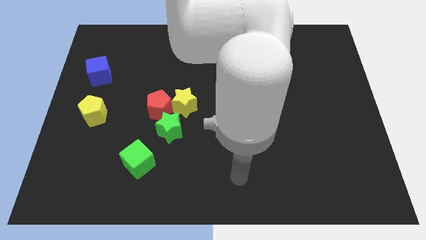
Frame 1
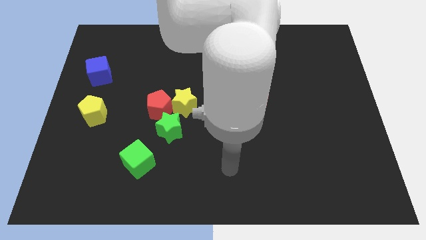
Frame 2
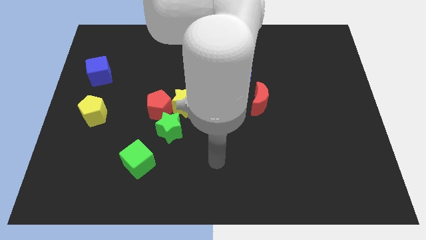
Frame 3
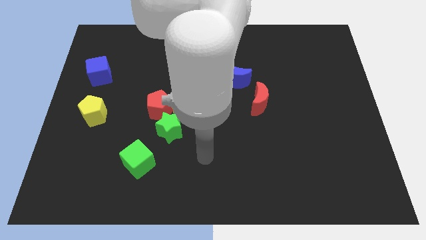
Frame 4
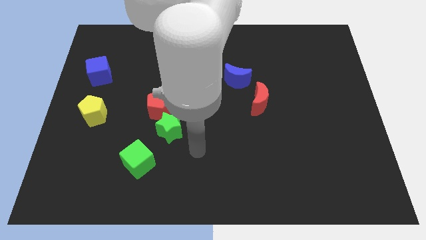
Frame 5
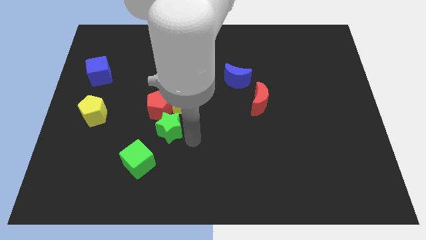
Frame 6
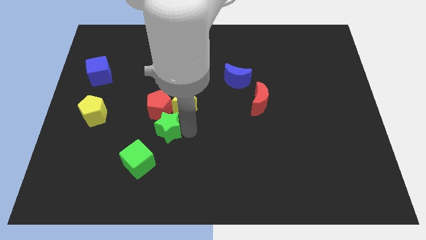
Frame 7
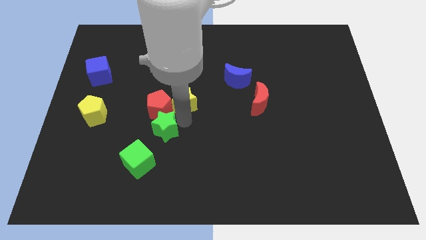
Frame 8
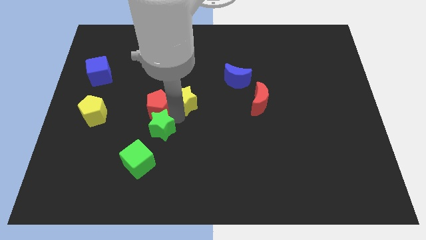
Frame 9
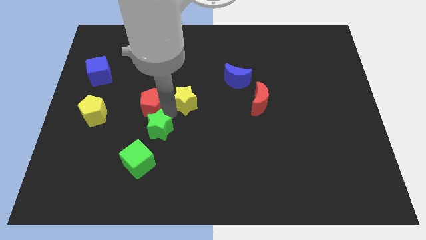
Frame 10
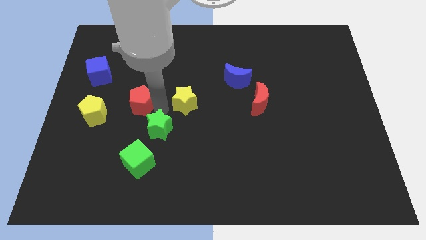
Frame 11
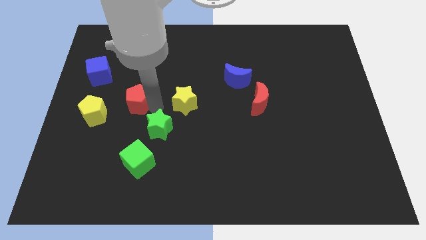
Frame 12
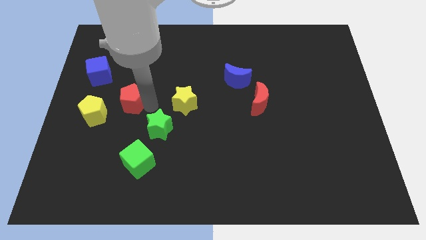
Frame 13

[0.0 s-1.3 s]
pull the red pentagon apart from the yellow star and green star

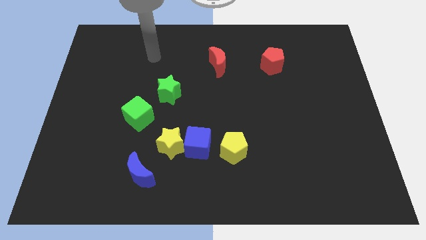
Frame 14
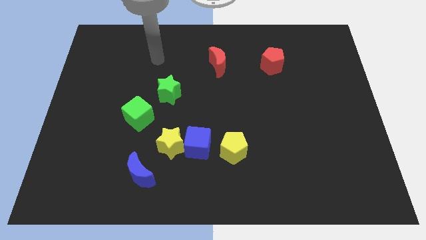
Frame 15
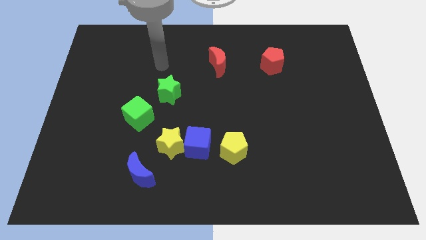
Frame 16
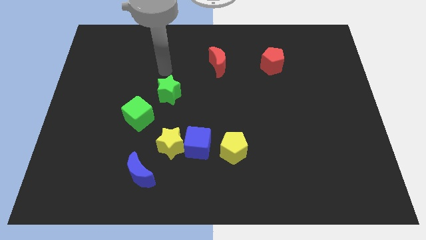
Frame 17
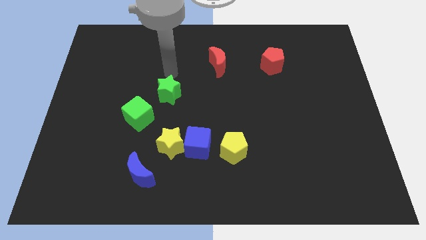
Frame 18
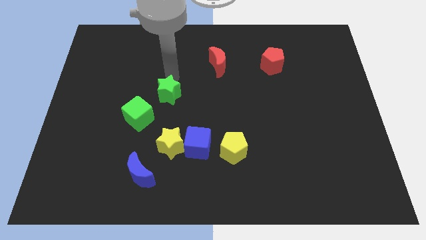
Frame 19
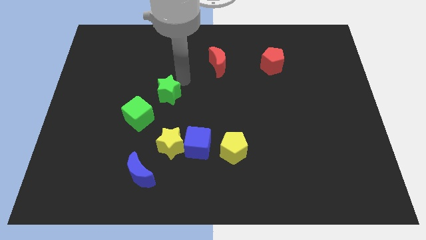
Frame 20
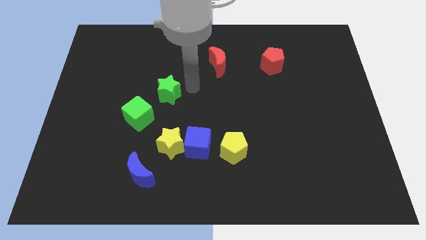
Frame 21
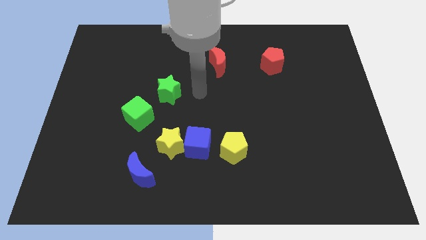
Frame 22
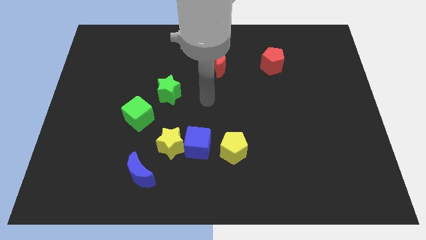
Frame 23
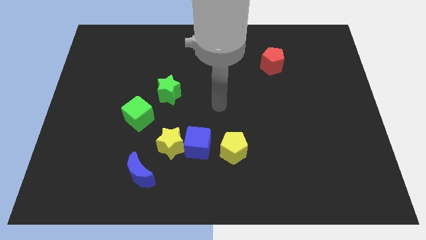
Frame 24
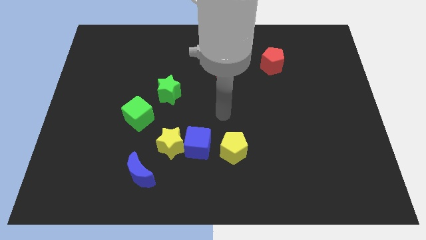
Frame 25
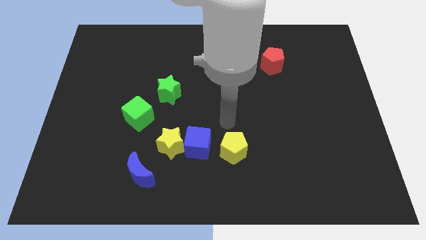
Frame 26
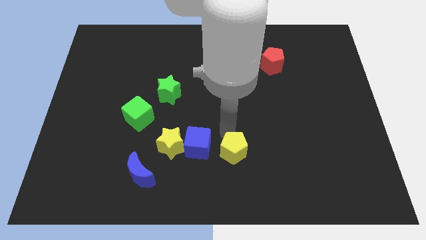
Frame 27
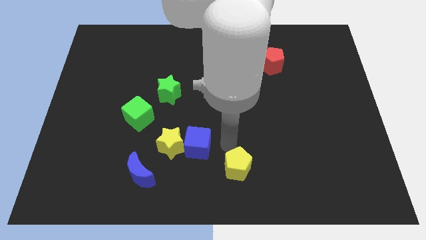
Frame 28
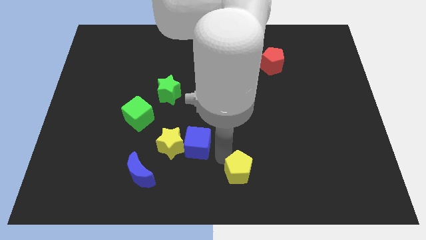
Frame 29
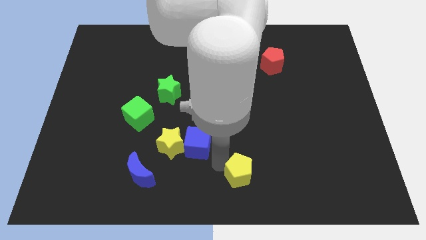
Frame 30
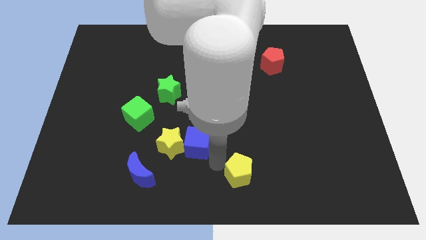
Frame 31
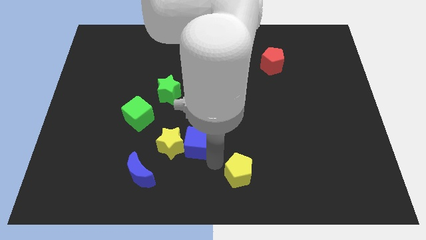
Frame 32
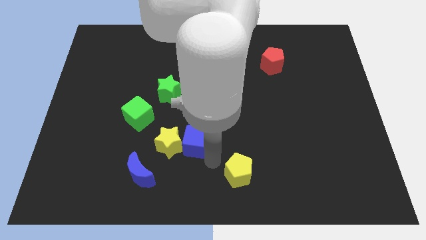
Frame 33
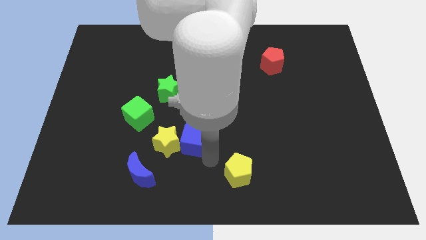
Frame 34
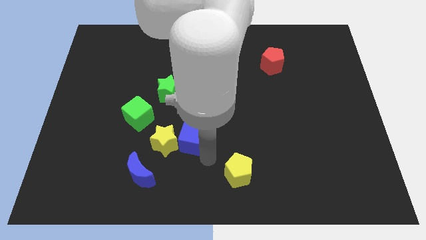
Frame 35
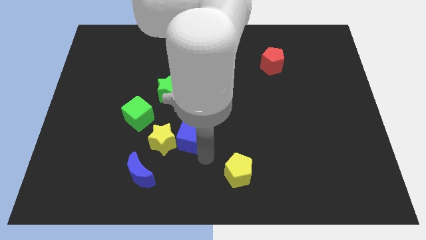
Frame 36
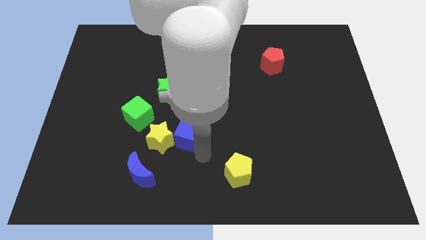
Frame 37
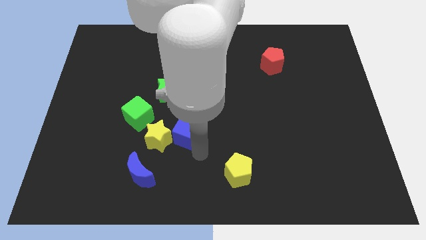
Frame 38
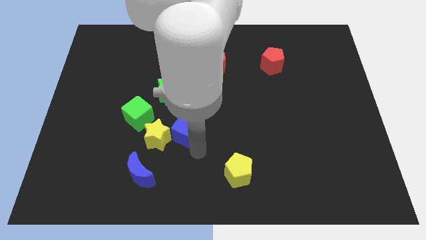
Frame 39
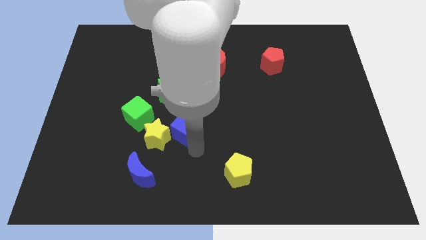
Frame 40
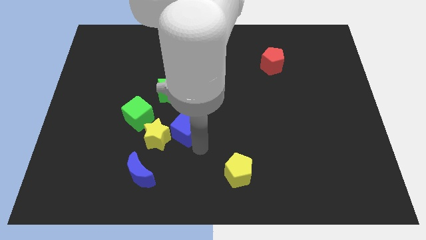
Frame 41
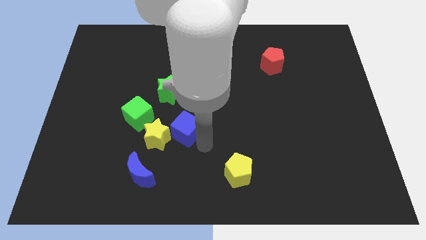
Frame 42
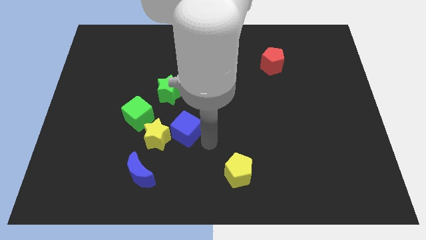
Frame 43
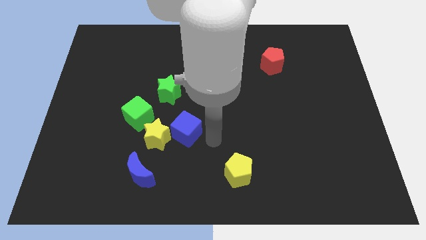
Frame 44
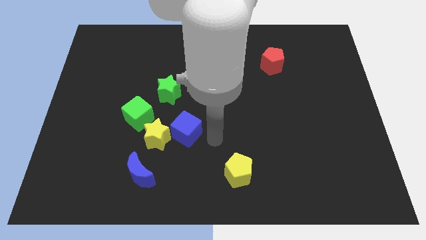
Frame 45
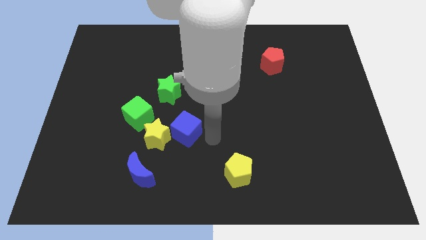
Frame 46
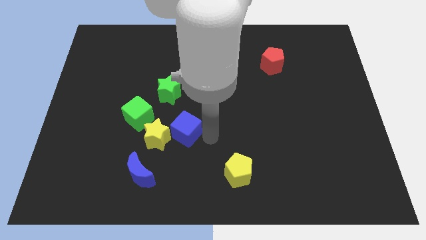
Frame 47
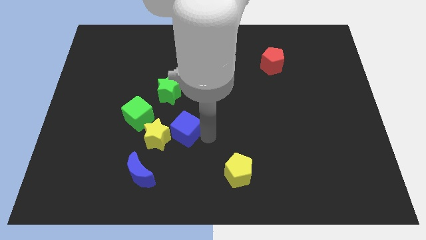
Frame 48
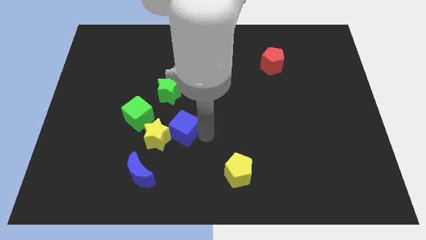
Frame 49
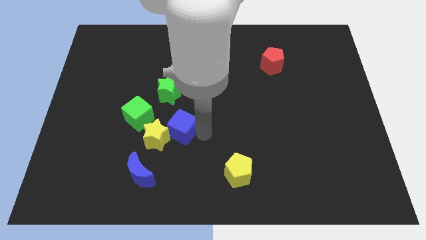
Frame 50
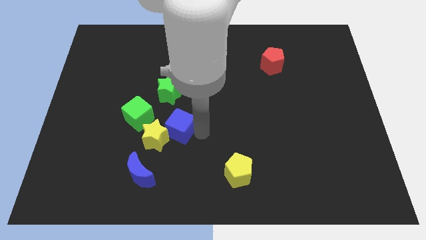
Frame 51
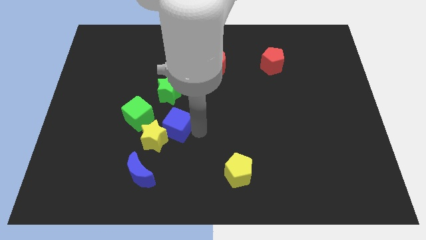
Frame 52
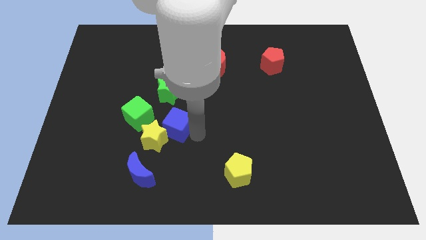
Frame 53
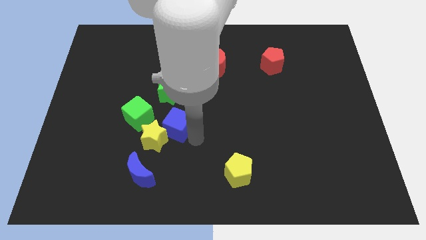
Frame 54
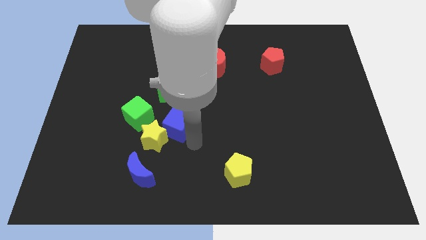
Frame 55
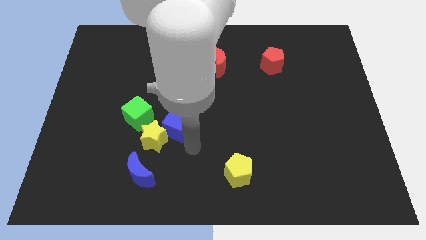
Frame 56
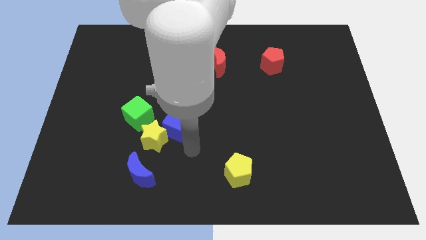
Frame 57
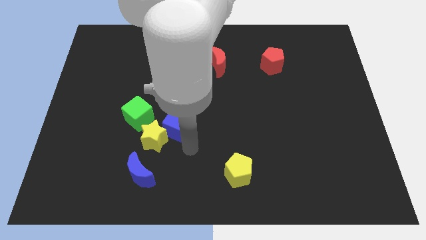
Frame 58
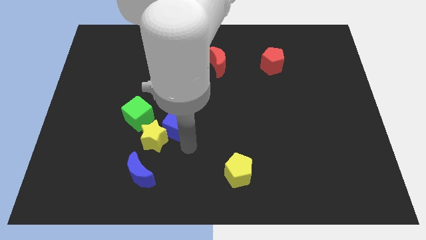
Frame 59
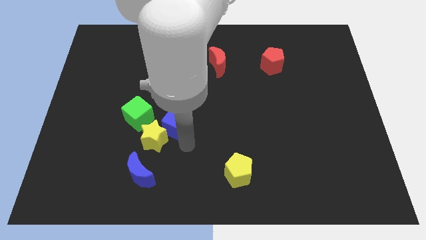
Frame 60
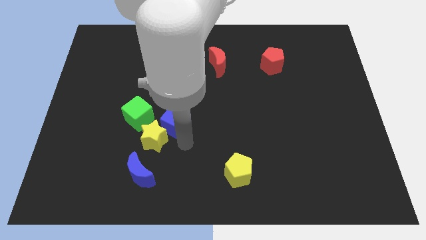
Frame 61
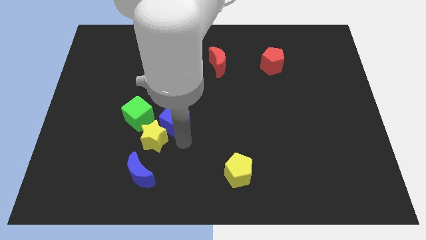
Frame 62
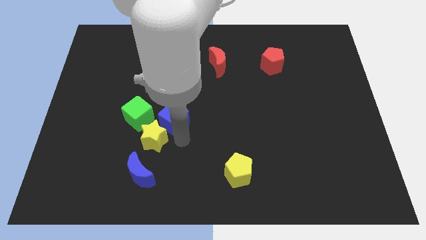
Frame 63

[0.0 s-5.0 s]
move the blue cube away from the yellow star and yellow pentagon

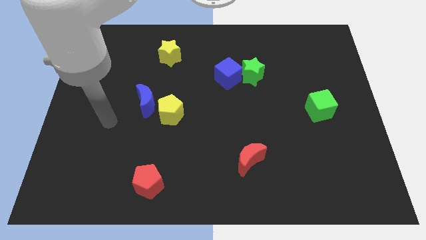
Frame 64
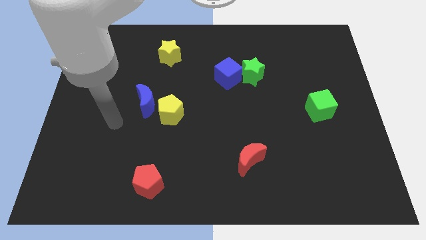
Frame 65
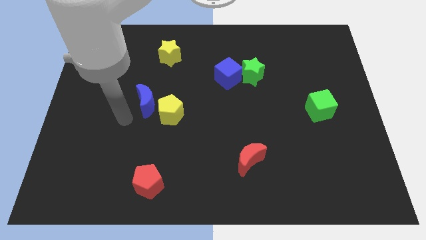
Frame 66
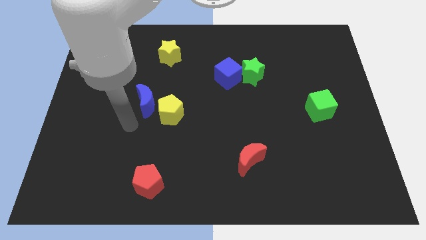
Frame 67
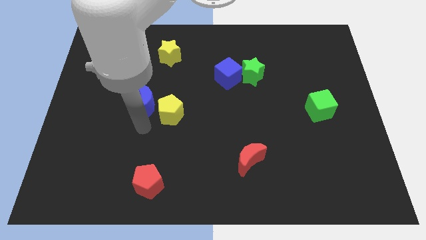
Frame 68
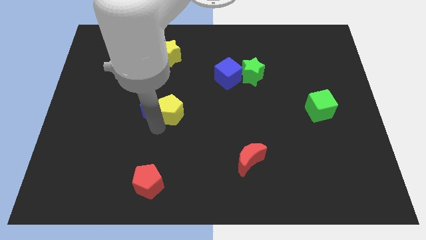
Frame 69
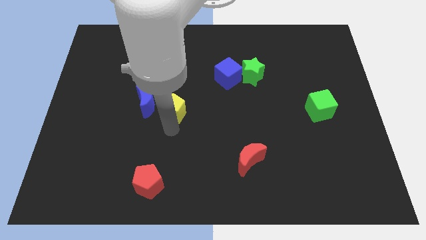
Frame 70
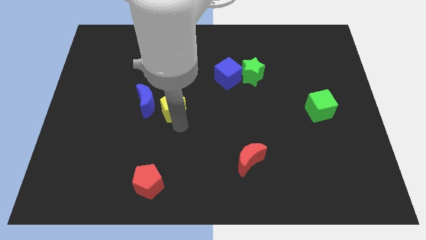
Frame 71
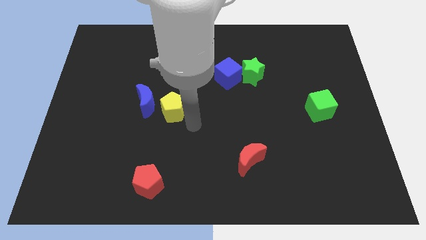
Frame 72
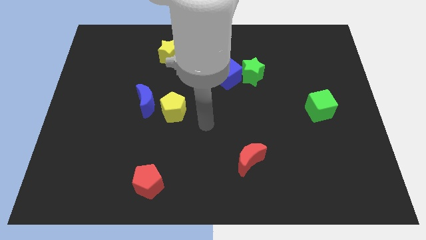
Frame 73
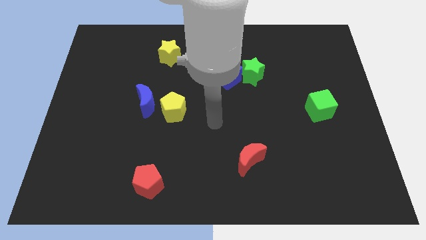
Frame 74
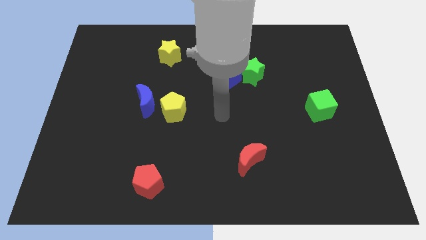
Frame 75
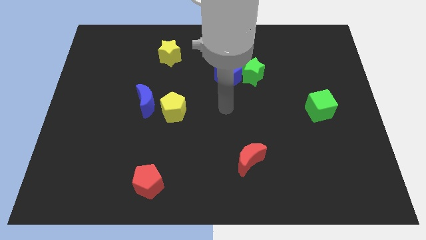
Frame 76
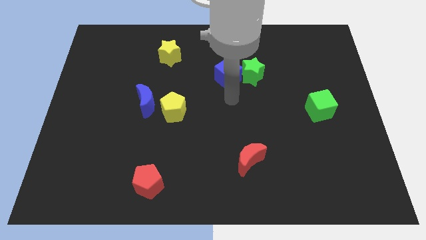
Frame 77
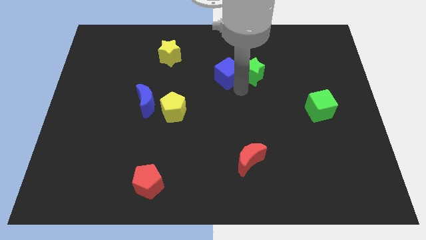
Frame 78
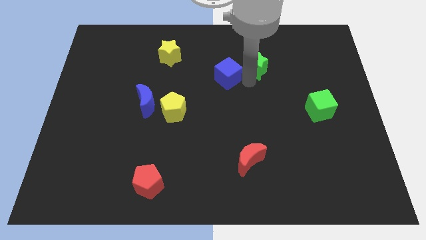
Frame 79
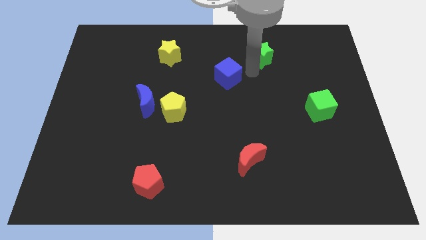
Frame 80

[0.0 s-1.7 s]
move the blue cube away from the green star

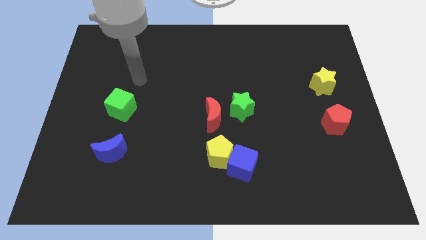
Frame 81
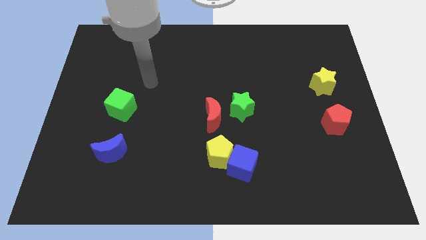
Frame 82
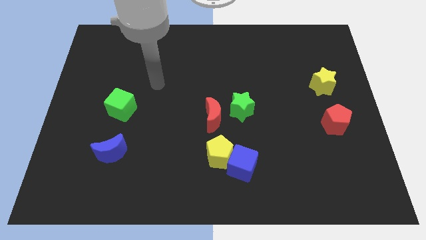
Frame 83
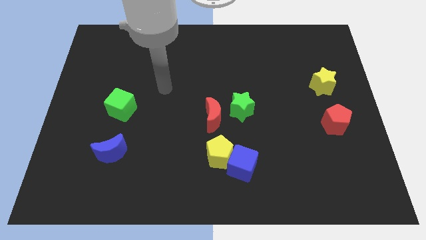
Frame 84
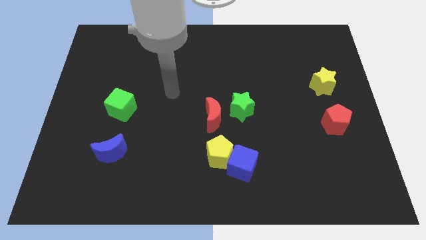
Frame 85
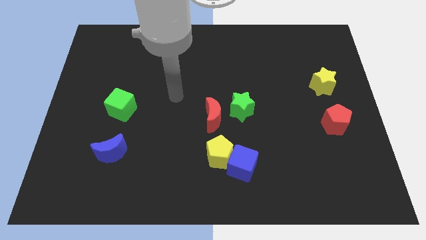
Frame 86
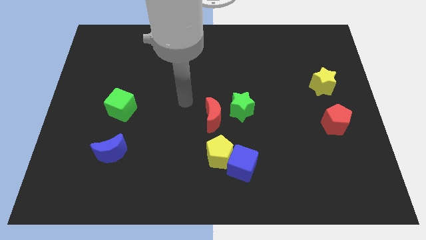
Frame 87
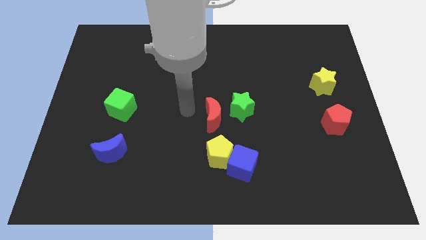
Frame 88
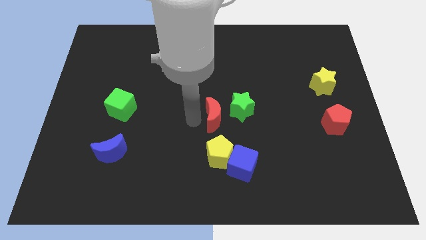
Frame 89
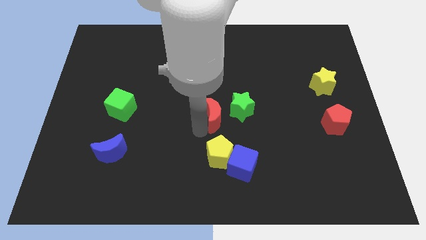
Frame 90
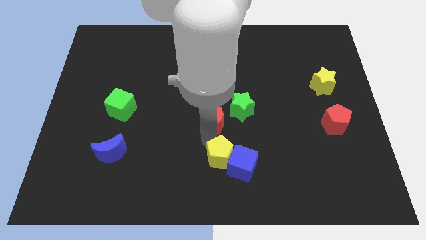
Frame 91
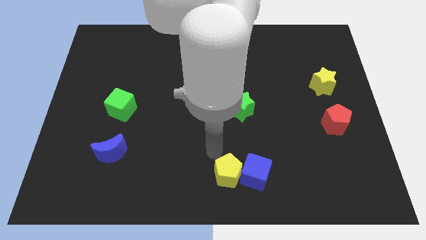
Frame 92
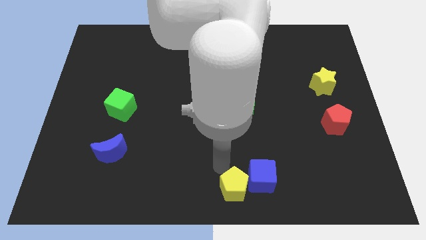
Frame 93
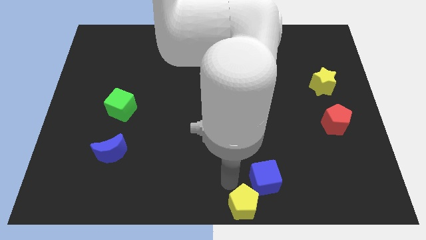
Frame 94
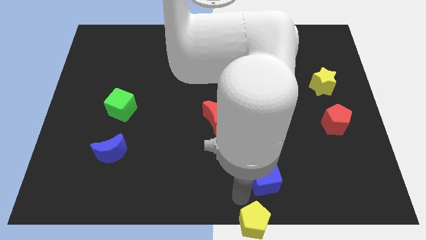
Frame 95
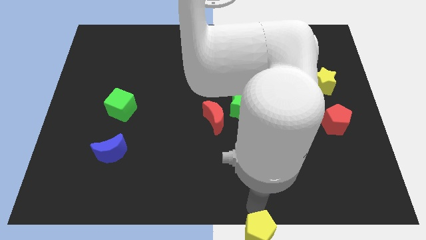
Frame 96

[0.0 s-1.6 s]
pull the blue cube apart from the yellow pentagon
